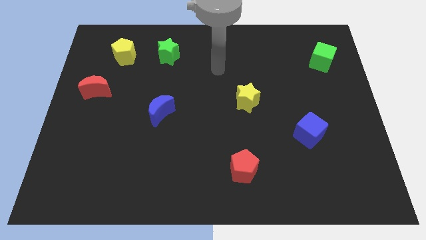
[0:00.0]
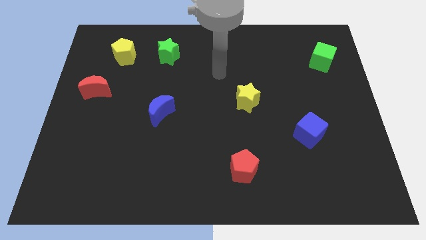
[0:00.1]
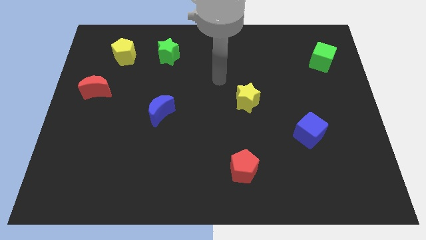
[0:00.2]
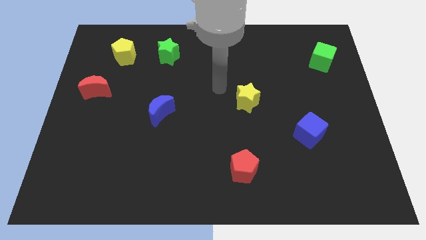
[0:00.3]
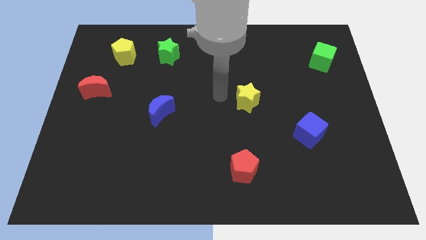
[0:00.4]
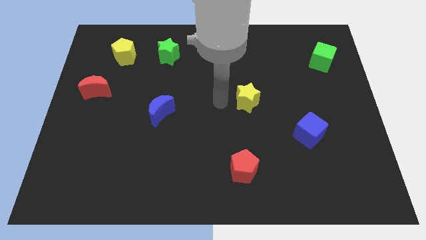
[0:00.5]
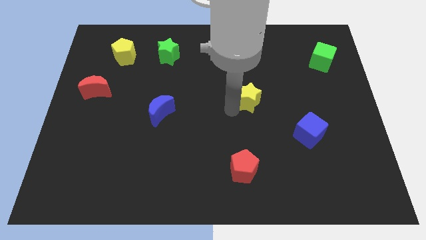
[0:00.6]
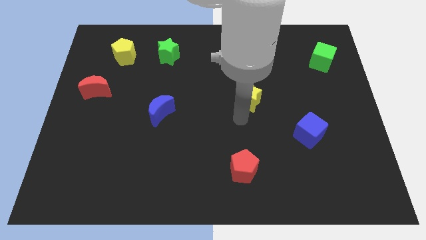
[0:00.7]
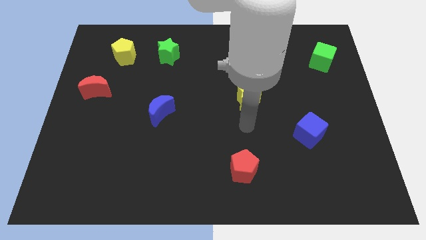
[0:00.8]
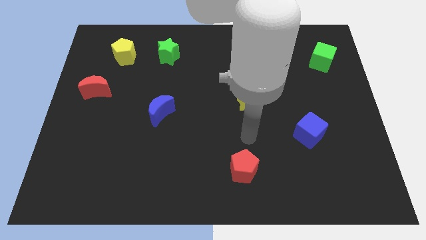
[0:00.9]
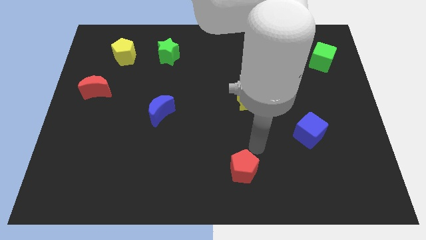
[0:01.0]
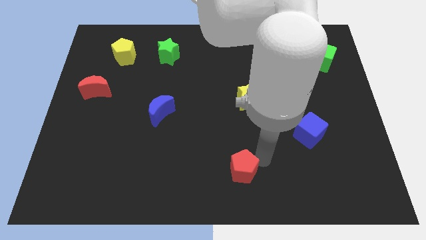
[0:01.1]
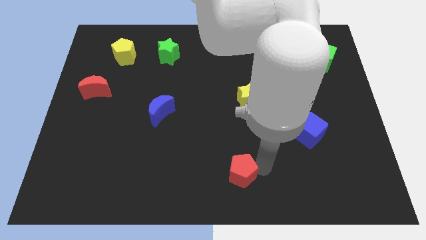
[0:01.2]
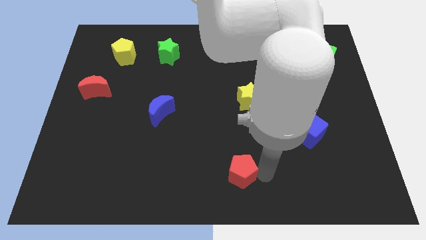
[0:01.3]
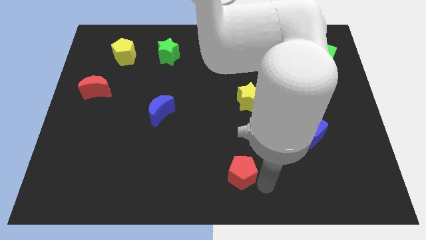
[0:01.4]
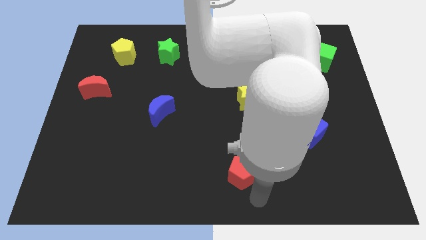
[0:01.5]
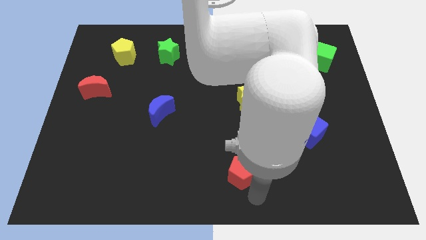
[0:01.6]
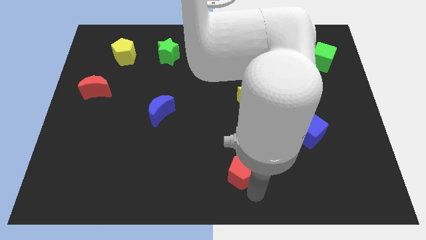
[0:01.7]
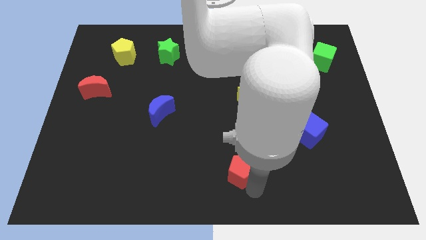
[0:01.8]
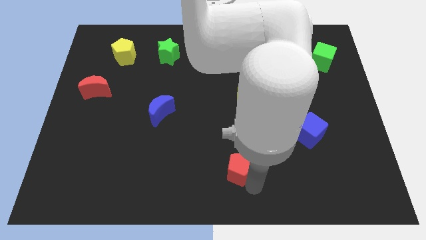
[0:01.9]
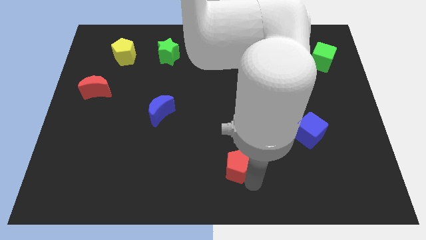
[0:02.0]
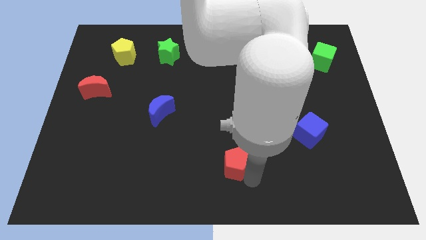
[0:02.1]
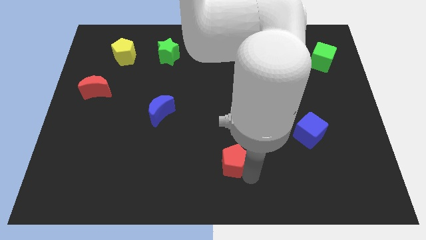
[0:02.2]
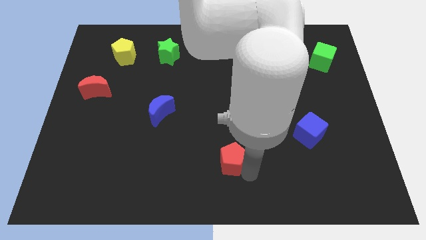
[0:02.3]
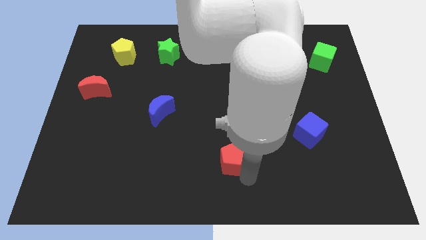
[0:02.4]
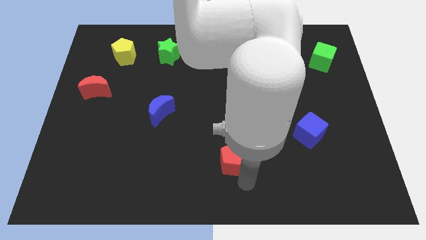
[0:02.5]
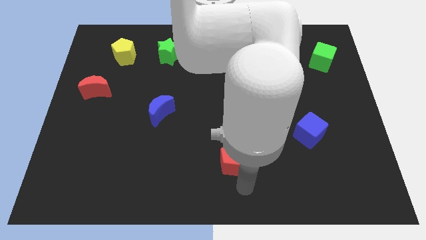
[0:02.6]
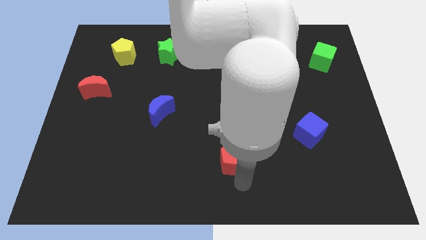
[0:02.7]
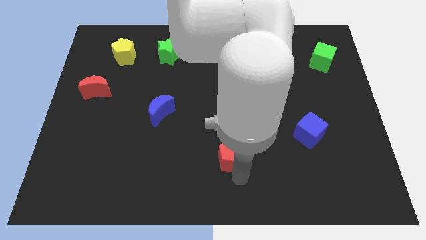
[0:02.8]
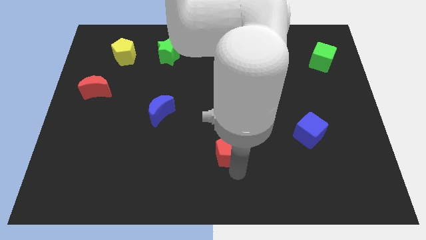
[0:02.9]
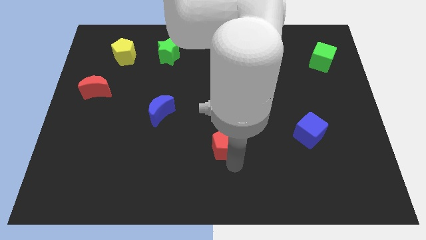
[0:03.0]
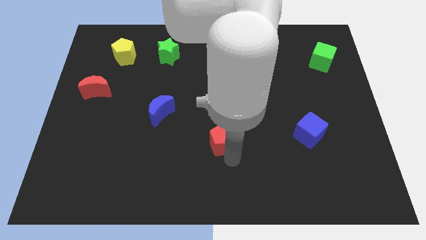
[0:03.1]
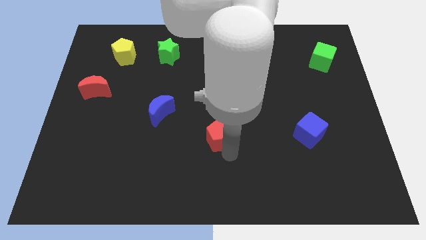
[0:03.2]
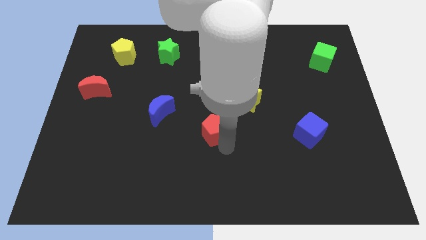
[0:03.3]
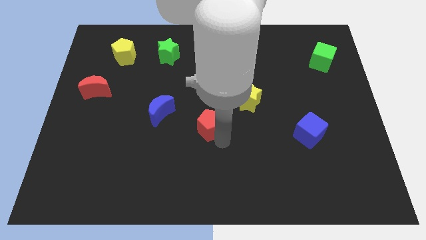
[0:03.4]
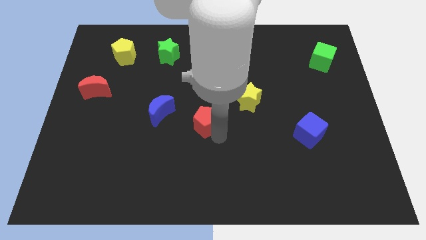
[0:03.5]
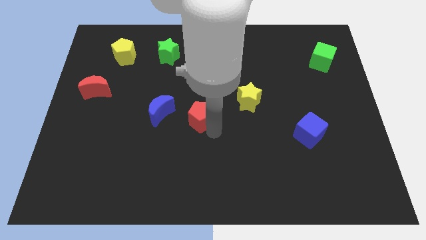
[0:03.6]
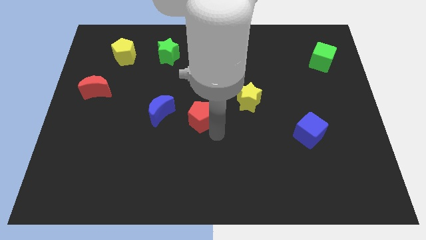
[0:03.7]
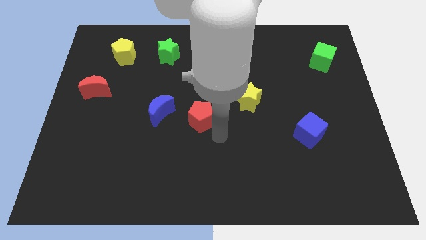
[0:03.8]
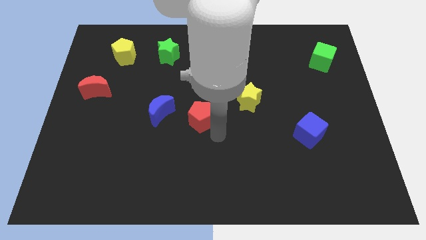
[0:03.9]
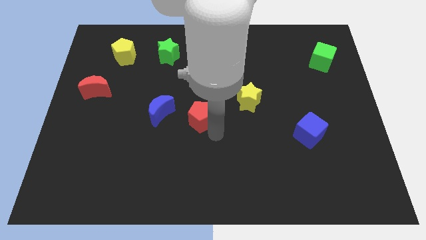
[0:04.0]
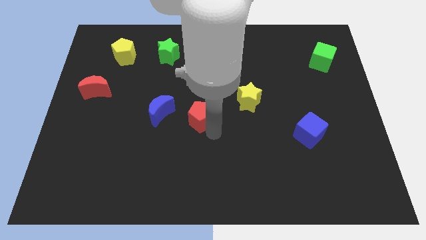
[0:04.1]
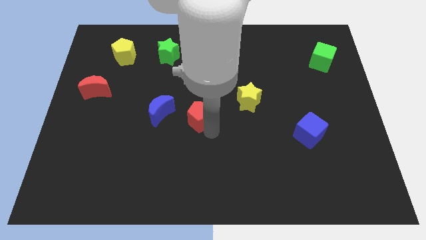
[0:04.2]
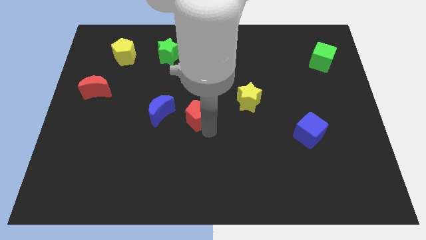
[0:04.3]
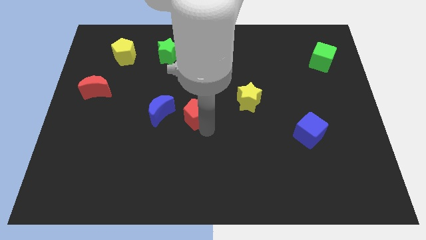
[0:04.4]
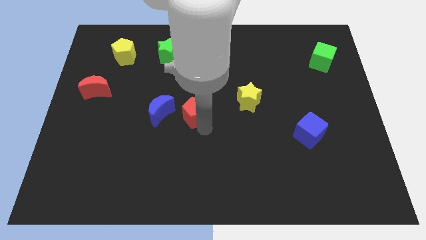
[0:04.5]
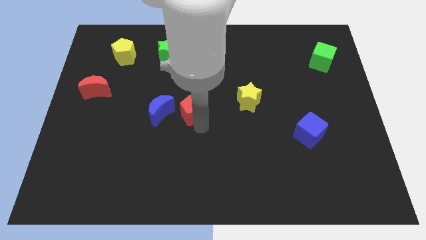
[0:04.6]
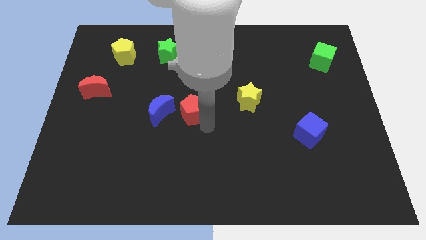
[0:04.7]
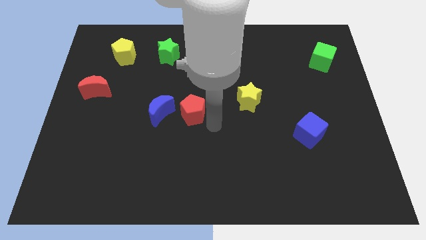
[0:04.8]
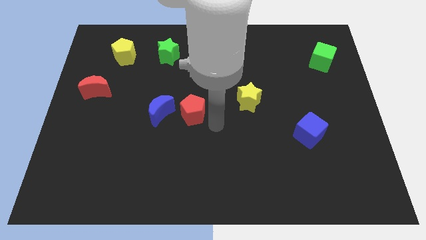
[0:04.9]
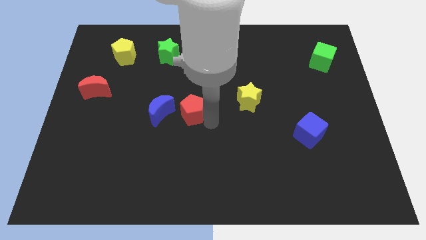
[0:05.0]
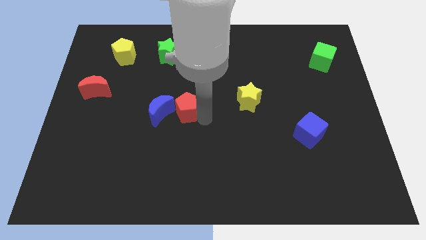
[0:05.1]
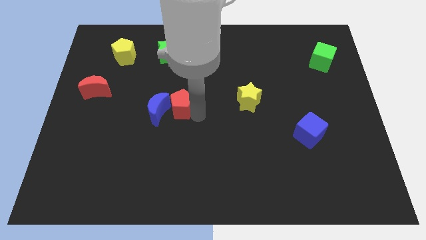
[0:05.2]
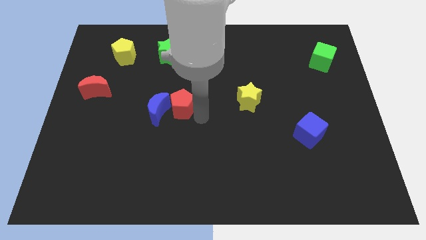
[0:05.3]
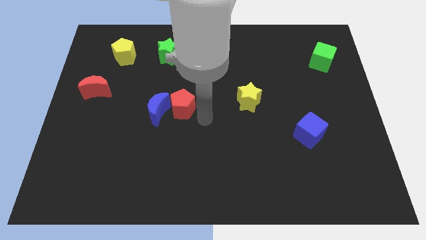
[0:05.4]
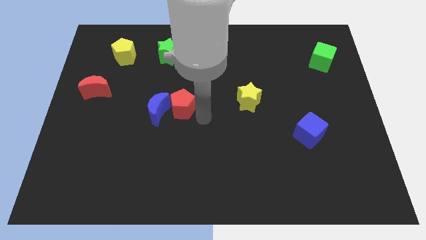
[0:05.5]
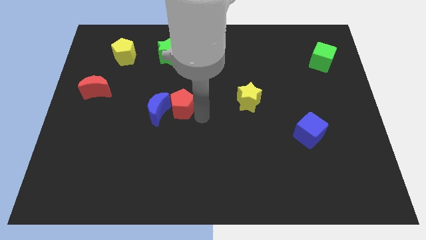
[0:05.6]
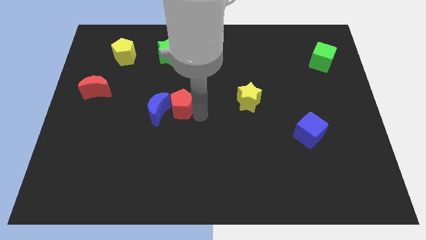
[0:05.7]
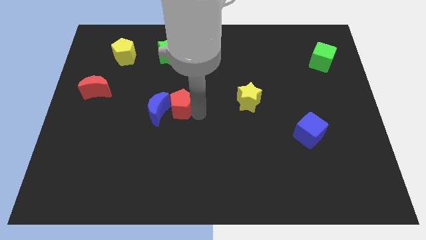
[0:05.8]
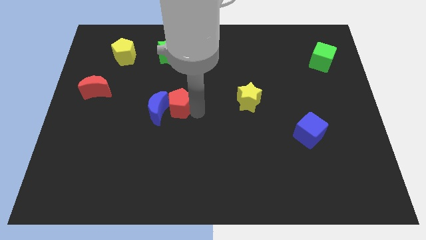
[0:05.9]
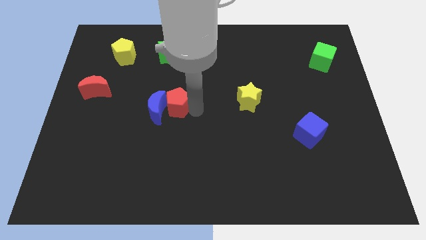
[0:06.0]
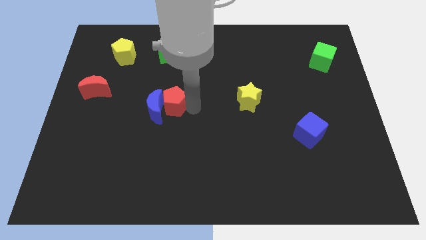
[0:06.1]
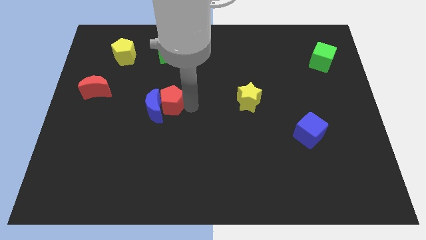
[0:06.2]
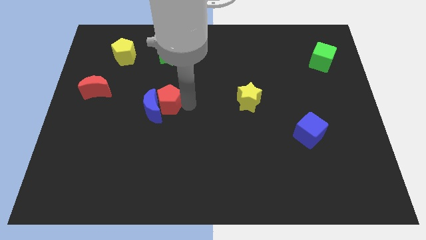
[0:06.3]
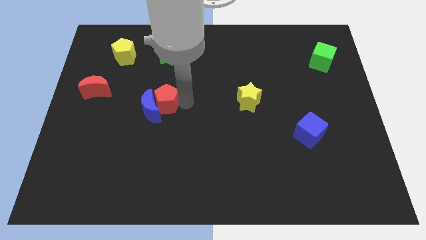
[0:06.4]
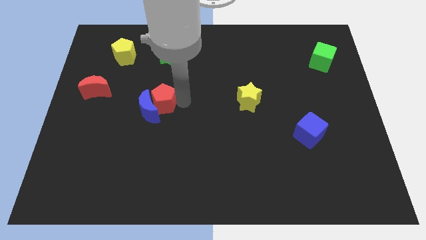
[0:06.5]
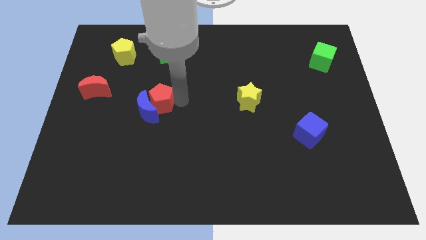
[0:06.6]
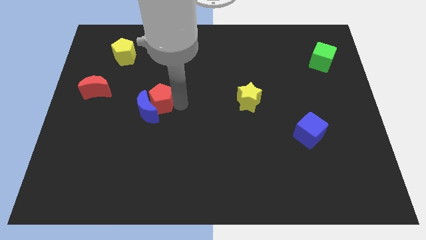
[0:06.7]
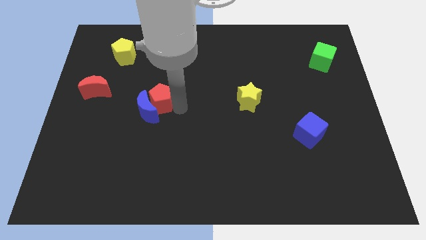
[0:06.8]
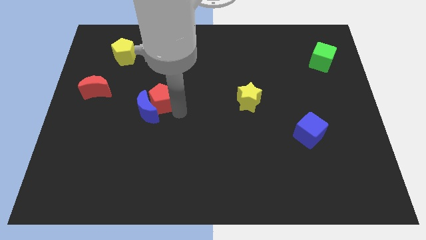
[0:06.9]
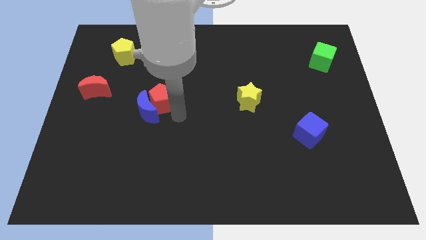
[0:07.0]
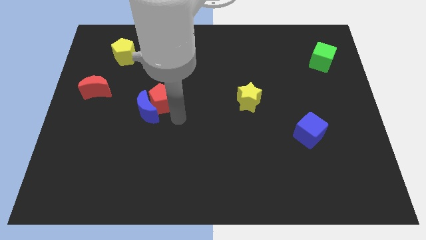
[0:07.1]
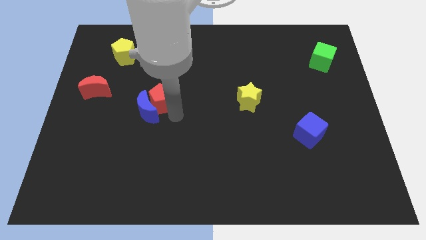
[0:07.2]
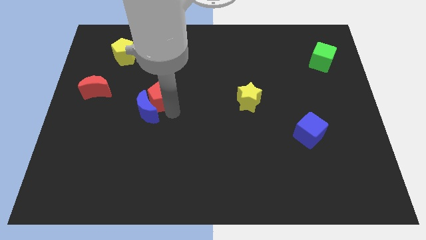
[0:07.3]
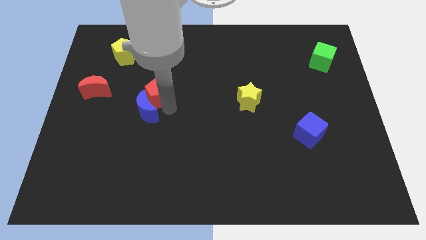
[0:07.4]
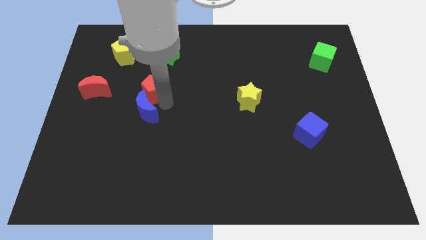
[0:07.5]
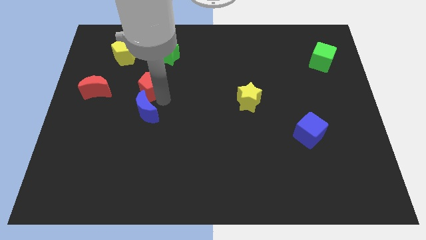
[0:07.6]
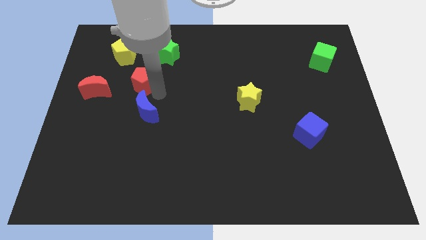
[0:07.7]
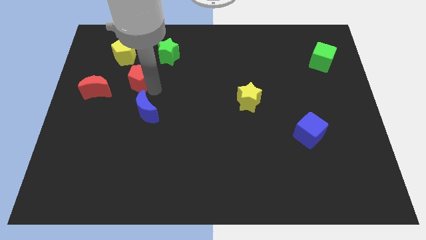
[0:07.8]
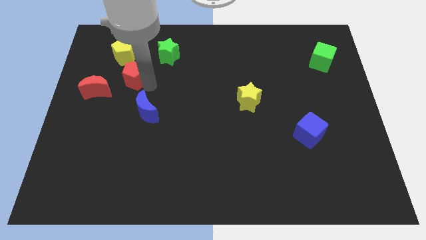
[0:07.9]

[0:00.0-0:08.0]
push the red pentagon diagonally up and to the right of the red moon
